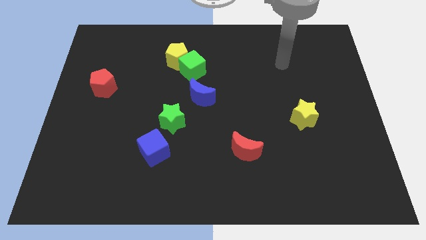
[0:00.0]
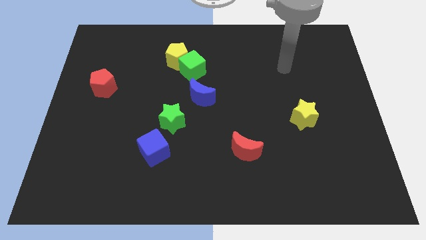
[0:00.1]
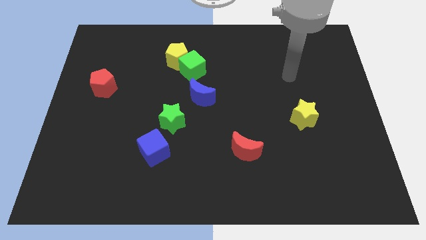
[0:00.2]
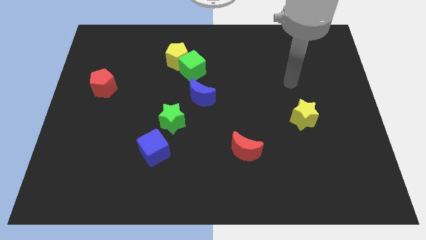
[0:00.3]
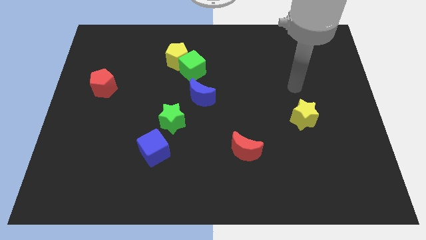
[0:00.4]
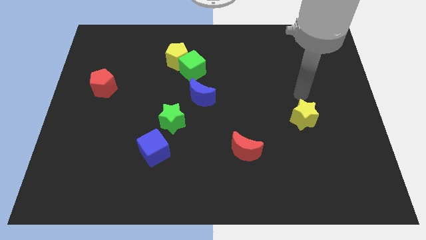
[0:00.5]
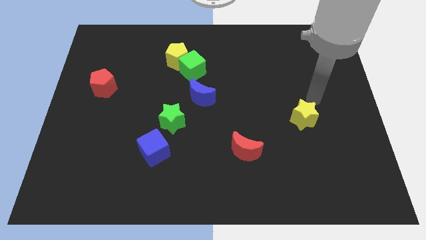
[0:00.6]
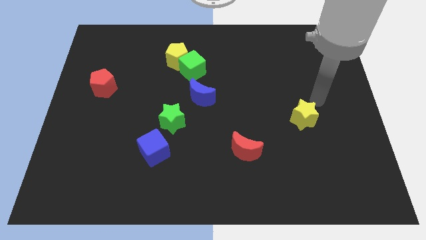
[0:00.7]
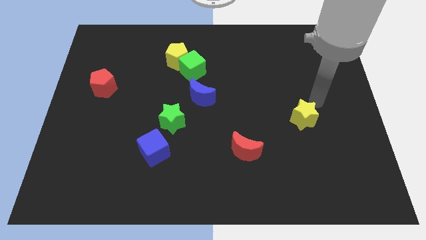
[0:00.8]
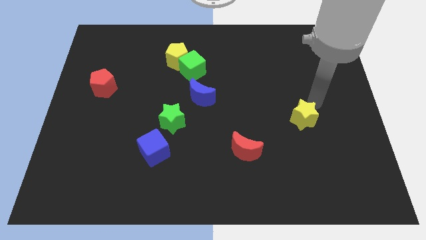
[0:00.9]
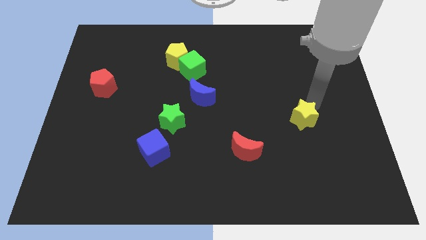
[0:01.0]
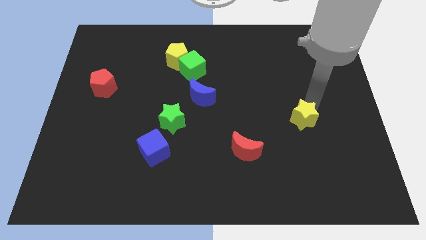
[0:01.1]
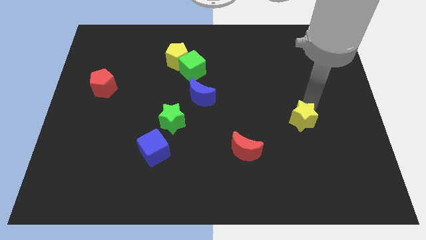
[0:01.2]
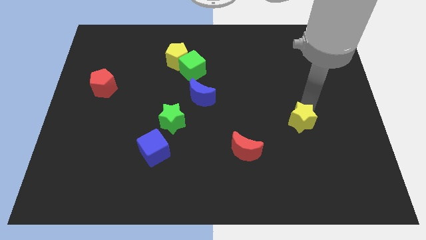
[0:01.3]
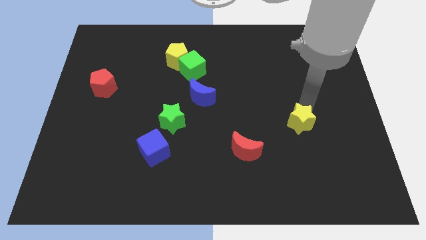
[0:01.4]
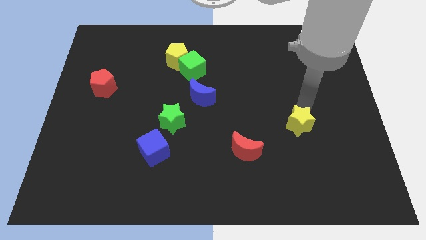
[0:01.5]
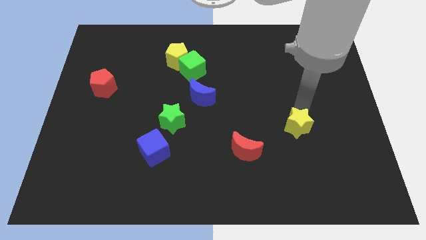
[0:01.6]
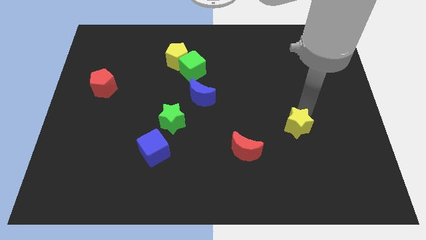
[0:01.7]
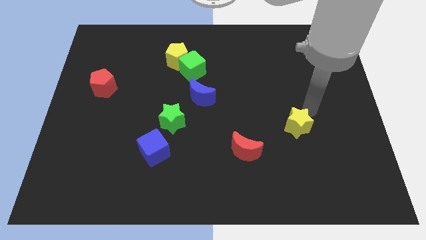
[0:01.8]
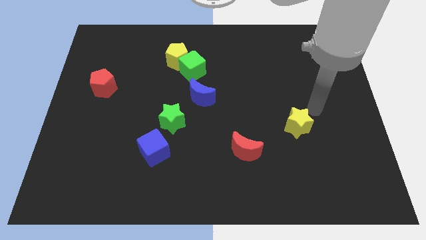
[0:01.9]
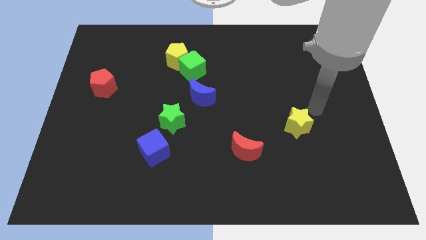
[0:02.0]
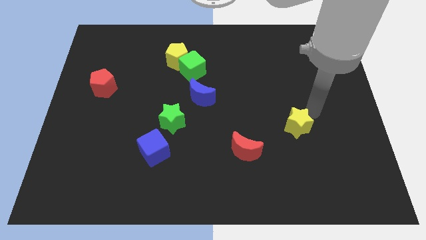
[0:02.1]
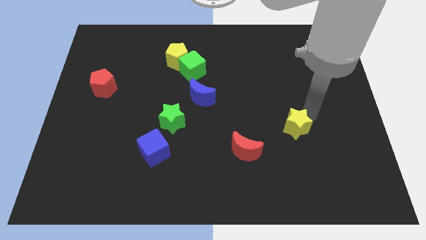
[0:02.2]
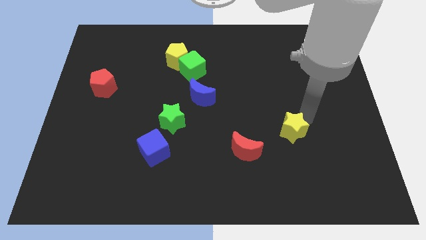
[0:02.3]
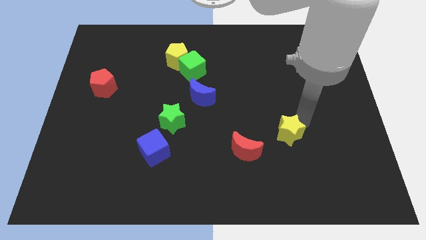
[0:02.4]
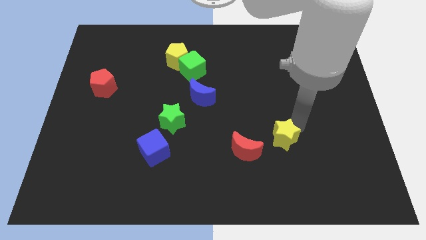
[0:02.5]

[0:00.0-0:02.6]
slide the yellow star slightly down and left diagonally

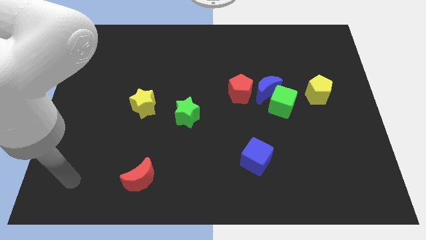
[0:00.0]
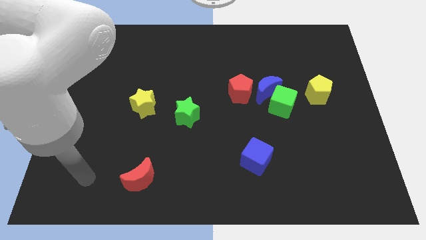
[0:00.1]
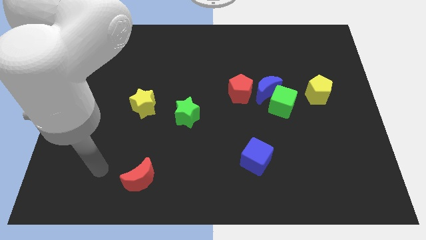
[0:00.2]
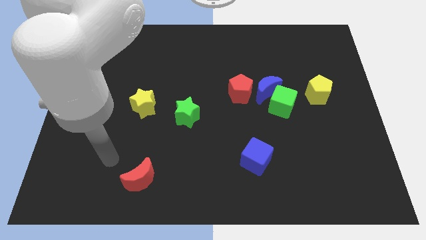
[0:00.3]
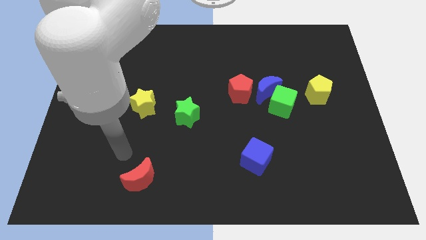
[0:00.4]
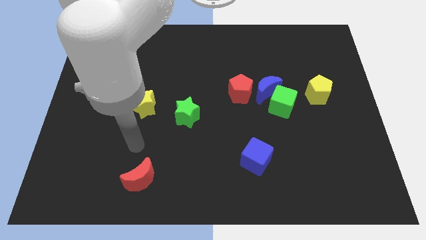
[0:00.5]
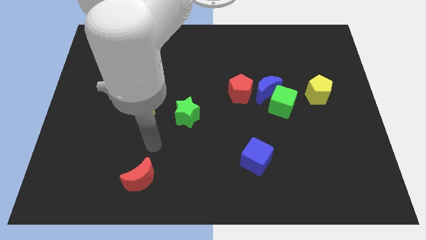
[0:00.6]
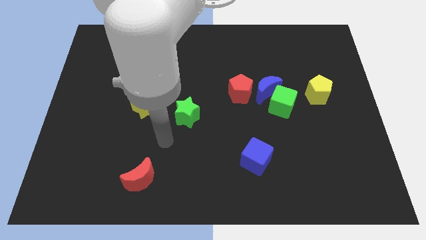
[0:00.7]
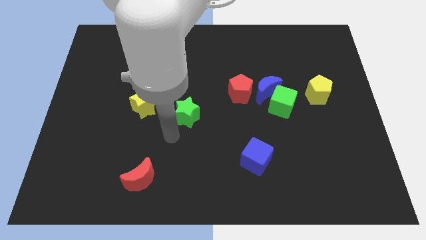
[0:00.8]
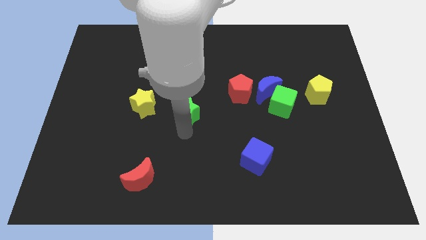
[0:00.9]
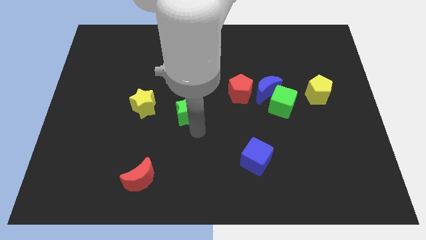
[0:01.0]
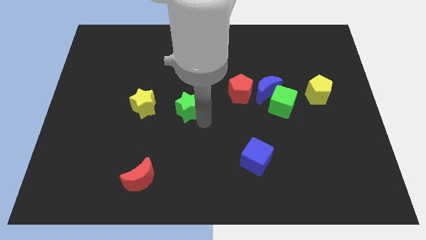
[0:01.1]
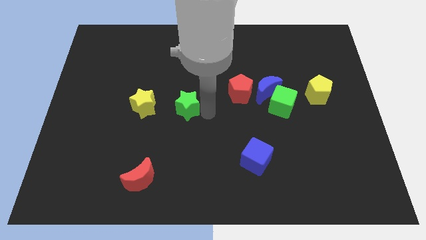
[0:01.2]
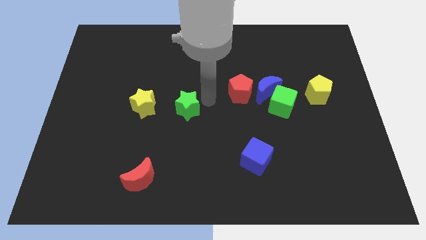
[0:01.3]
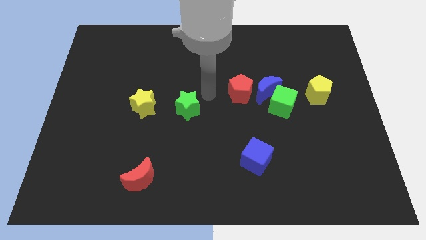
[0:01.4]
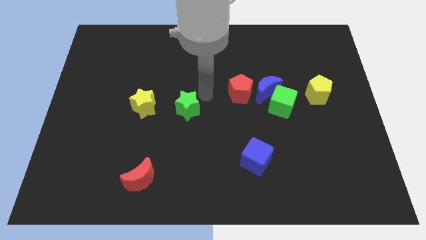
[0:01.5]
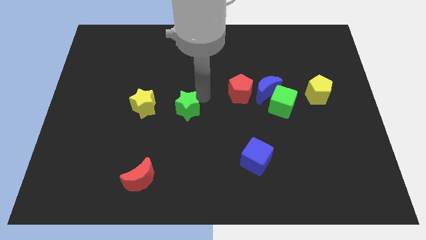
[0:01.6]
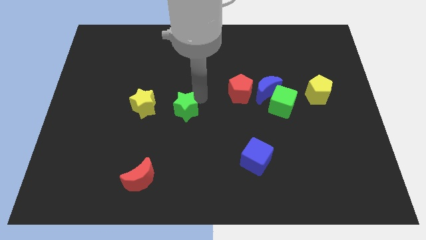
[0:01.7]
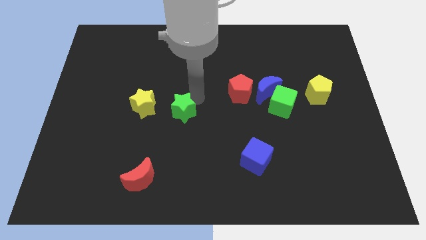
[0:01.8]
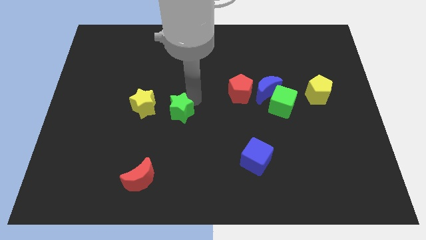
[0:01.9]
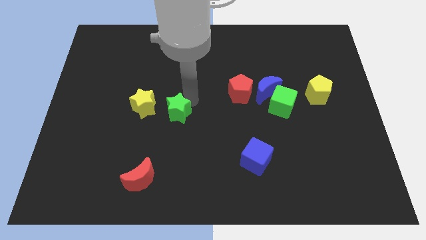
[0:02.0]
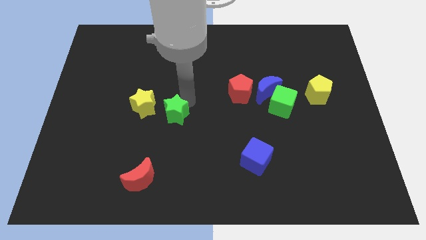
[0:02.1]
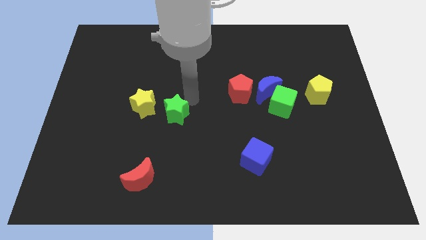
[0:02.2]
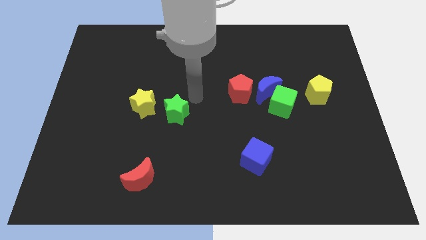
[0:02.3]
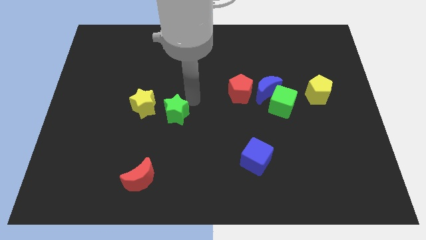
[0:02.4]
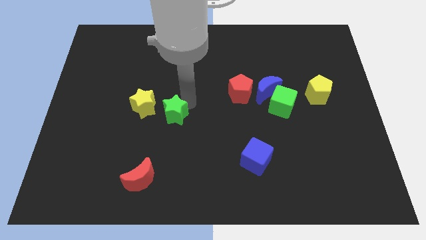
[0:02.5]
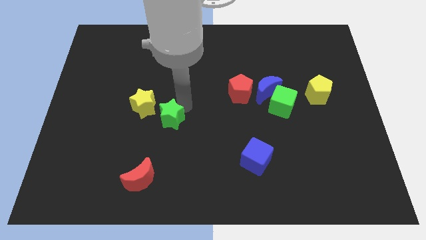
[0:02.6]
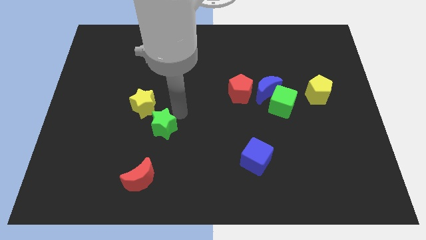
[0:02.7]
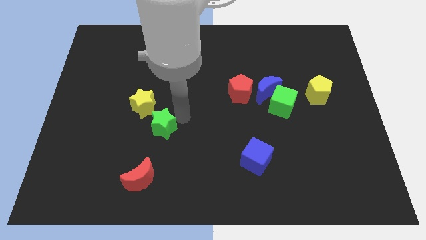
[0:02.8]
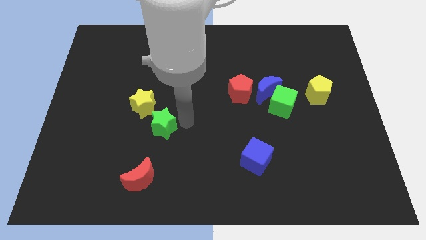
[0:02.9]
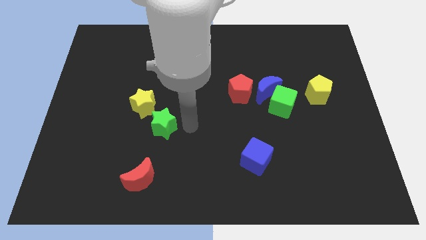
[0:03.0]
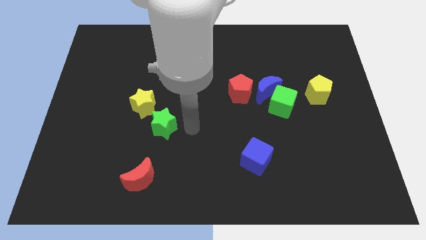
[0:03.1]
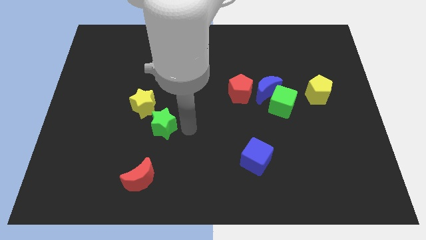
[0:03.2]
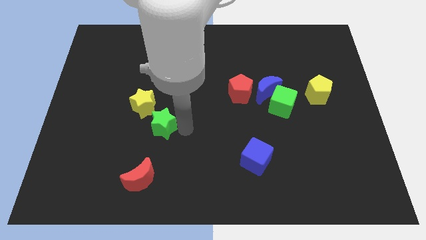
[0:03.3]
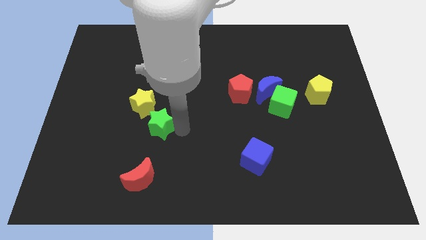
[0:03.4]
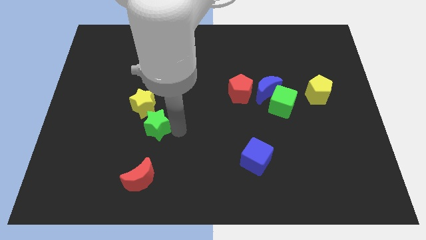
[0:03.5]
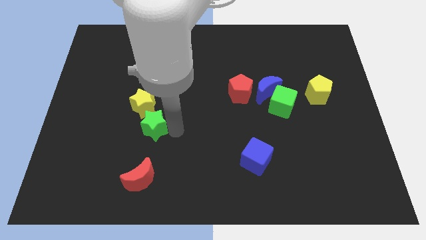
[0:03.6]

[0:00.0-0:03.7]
slide the green star left a little

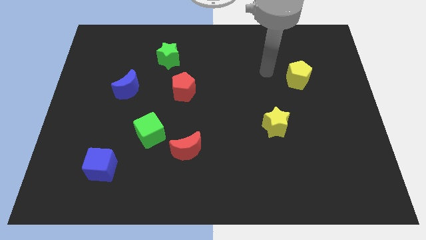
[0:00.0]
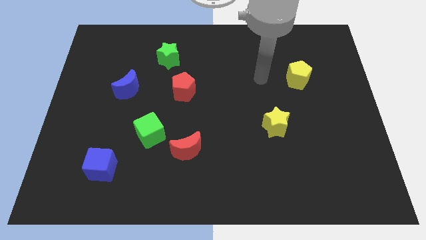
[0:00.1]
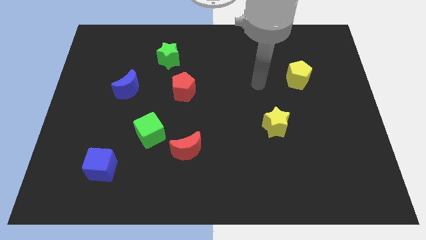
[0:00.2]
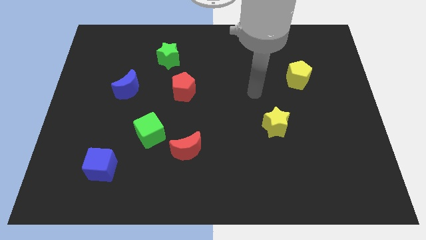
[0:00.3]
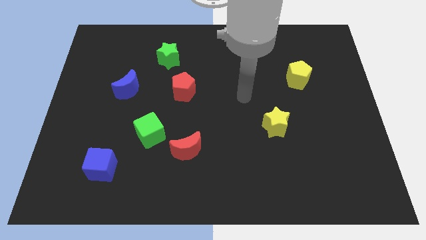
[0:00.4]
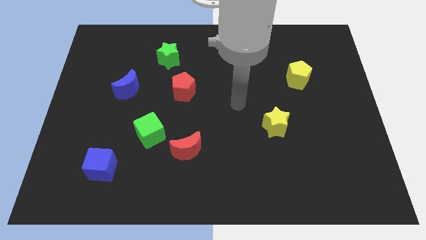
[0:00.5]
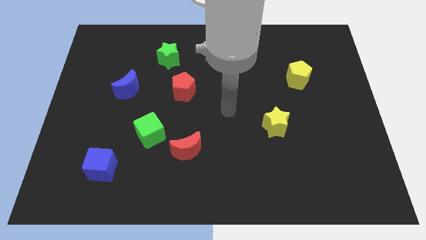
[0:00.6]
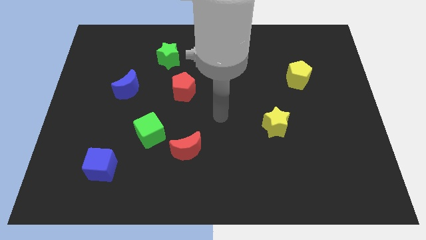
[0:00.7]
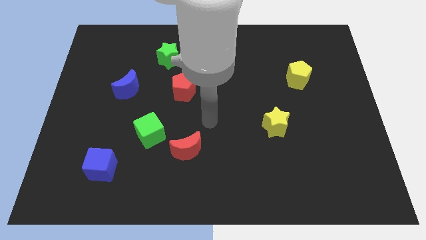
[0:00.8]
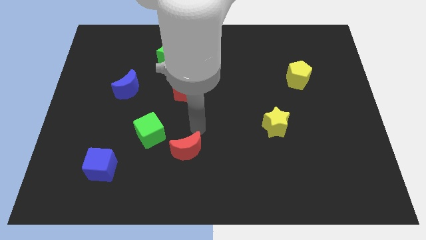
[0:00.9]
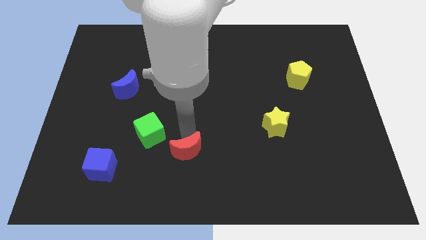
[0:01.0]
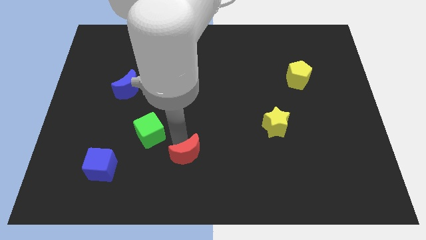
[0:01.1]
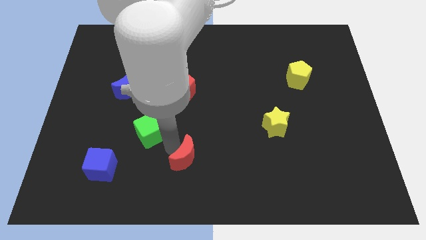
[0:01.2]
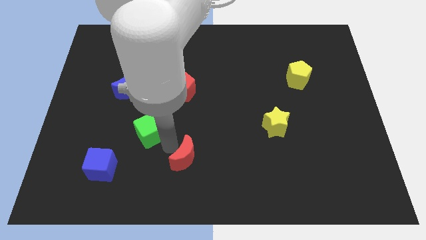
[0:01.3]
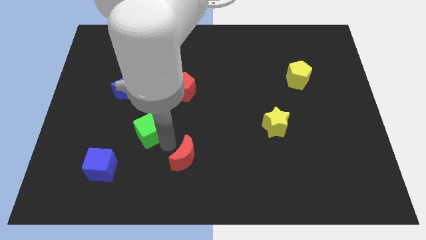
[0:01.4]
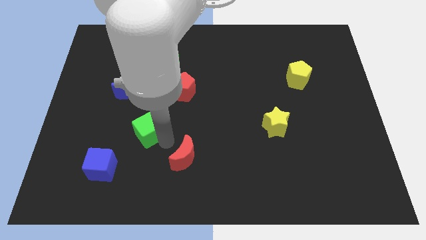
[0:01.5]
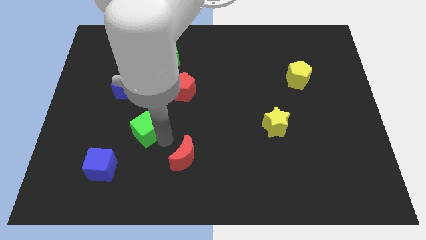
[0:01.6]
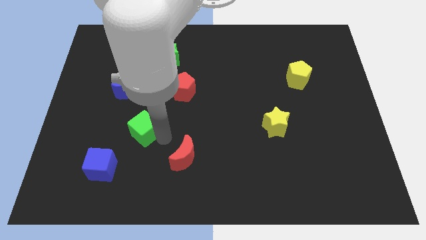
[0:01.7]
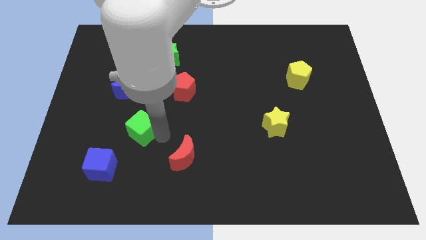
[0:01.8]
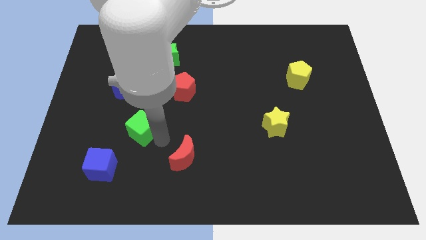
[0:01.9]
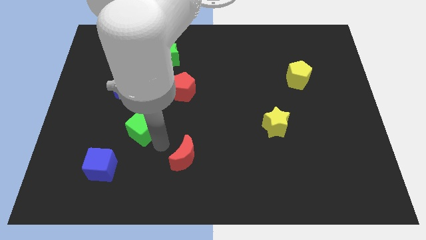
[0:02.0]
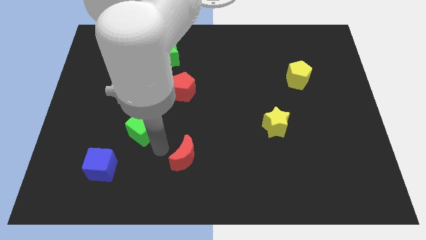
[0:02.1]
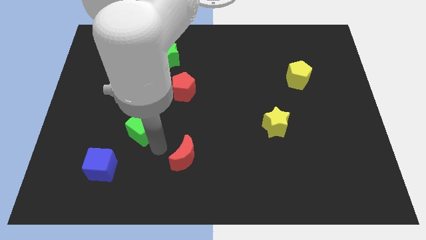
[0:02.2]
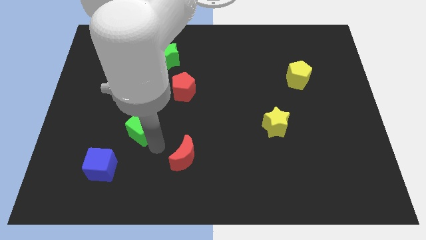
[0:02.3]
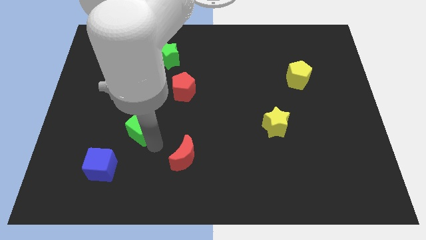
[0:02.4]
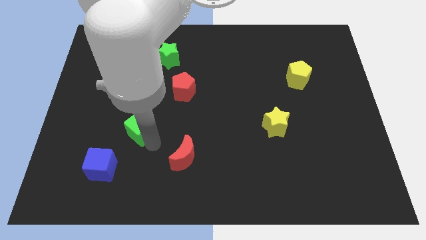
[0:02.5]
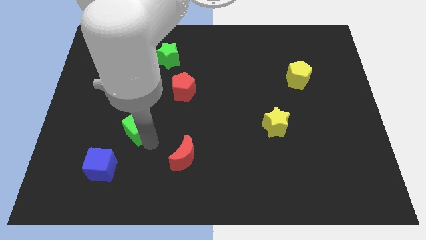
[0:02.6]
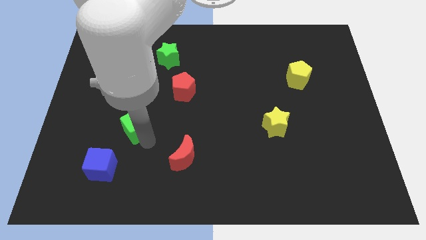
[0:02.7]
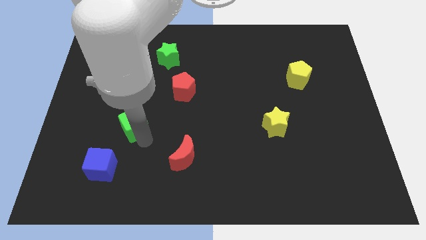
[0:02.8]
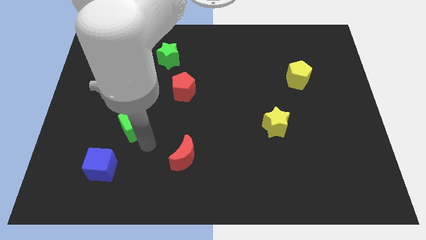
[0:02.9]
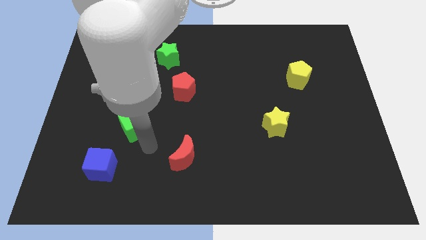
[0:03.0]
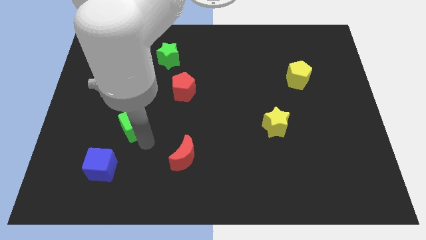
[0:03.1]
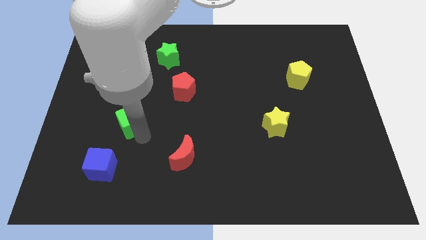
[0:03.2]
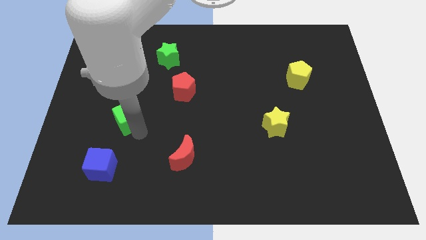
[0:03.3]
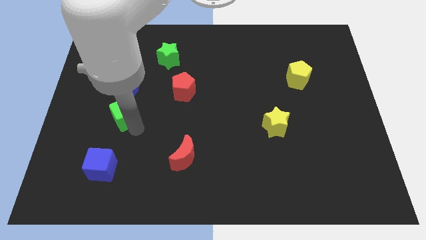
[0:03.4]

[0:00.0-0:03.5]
push the green cube up and to the left diagonally somewhat
